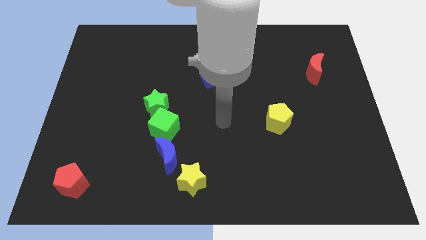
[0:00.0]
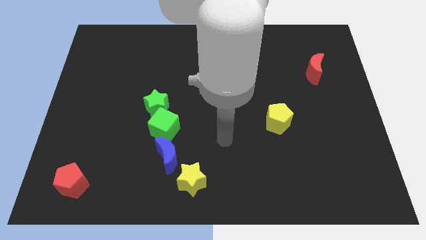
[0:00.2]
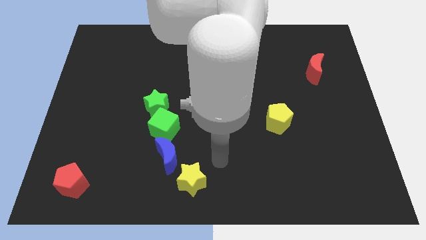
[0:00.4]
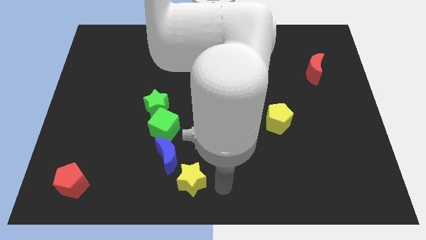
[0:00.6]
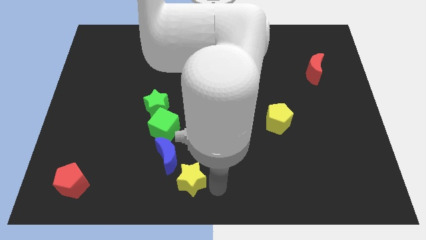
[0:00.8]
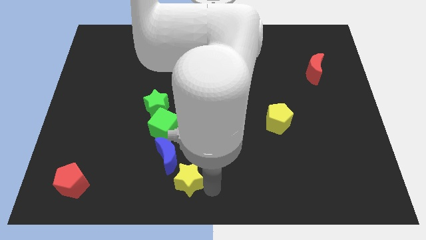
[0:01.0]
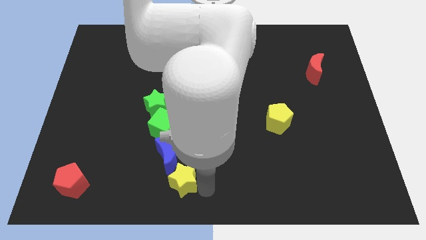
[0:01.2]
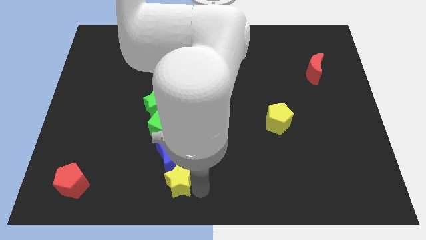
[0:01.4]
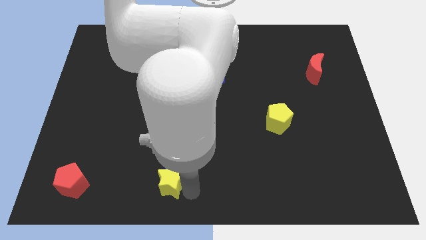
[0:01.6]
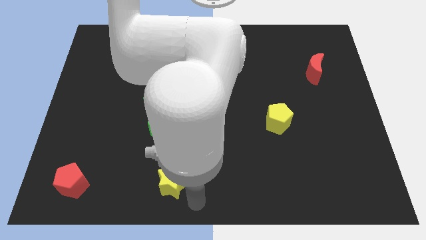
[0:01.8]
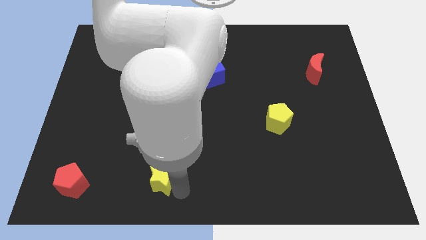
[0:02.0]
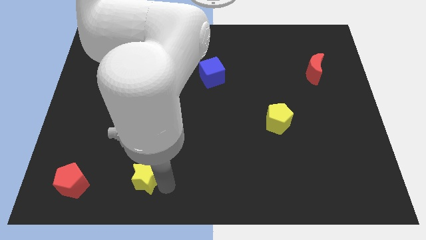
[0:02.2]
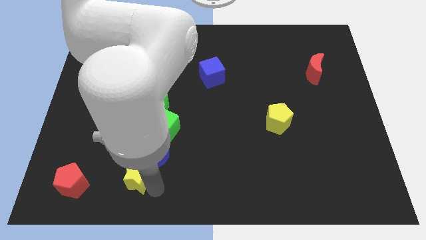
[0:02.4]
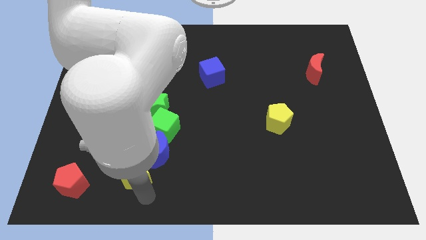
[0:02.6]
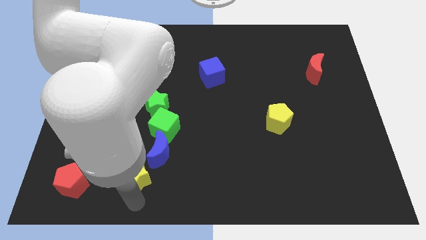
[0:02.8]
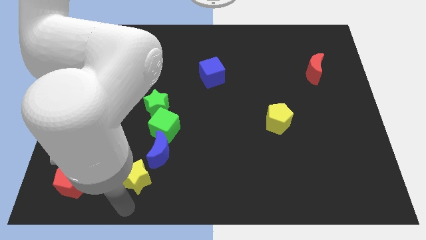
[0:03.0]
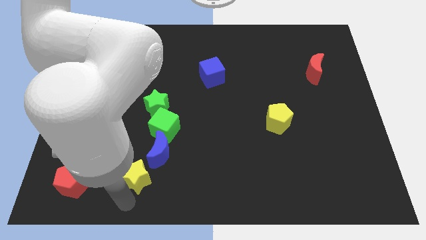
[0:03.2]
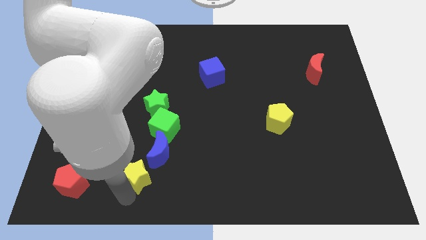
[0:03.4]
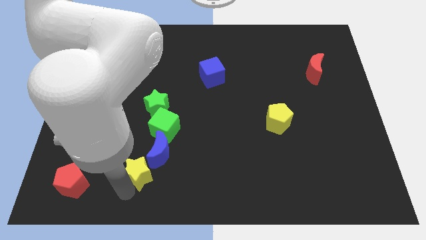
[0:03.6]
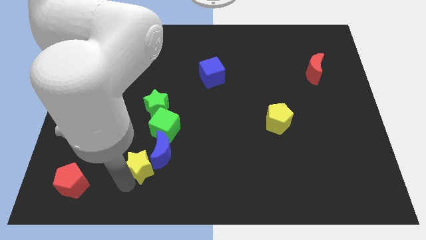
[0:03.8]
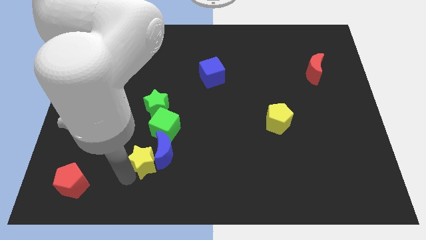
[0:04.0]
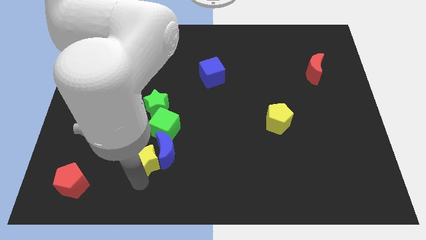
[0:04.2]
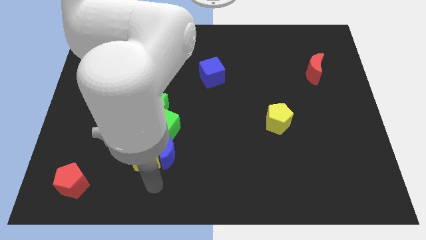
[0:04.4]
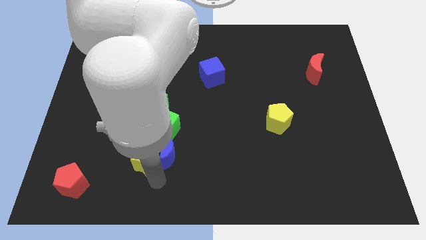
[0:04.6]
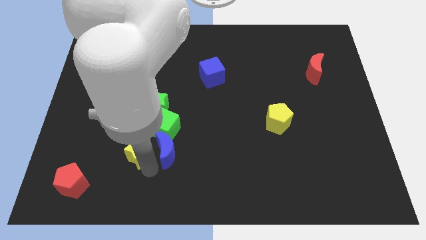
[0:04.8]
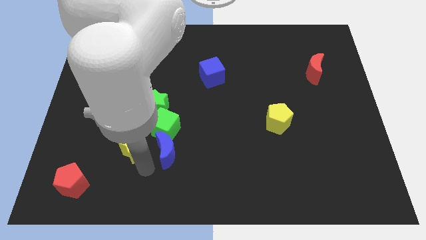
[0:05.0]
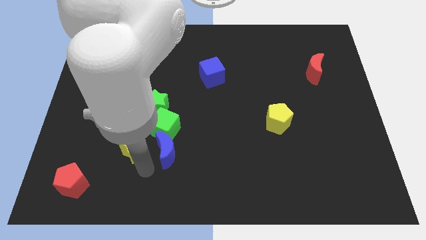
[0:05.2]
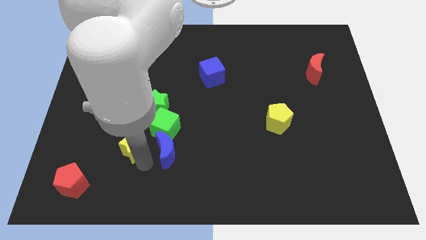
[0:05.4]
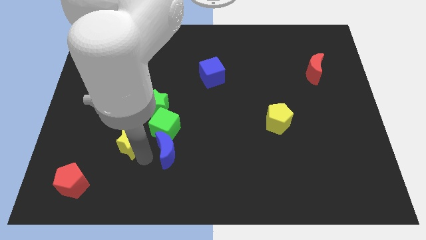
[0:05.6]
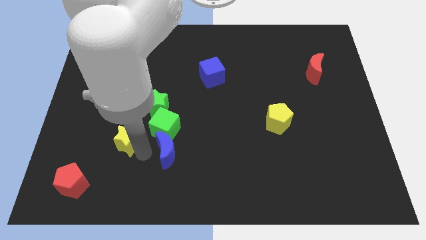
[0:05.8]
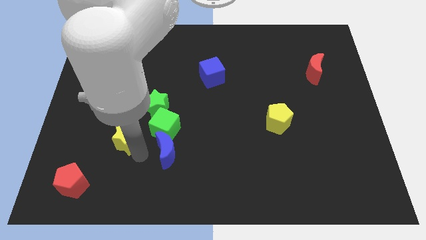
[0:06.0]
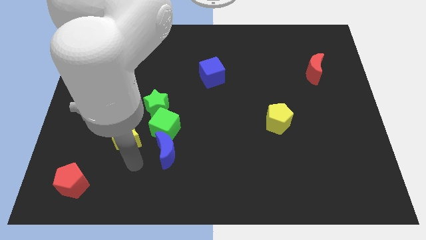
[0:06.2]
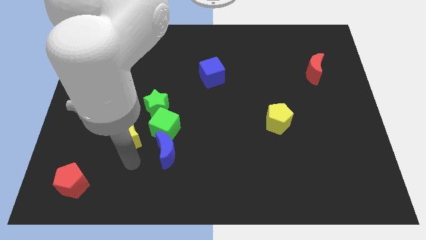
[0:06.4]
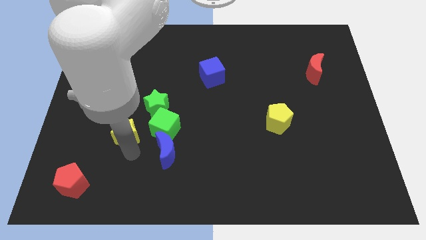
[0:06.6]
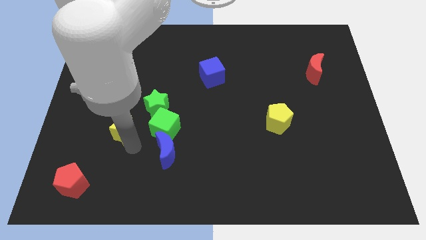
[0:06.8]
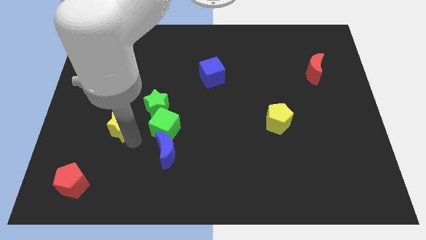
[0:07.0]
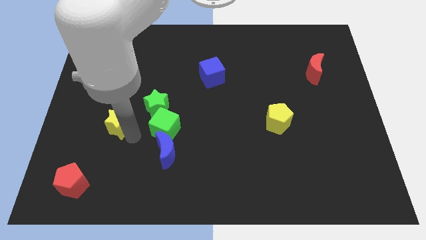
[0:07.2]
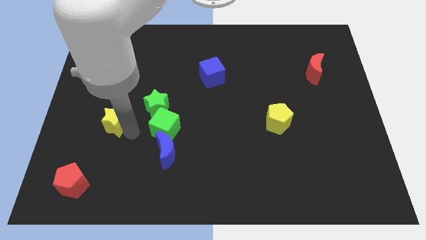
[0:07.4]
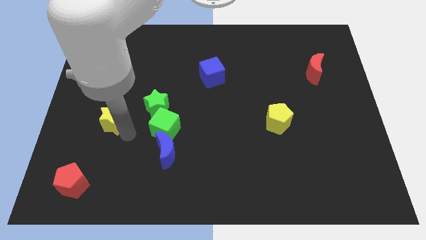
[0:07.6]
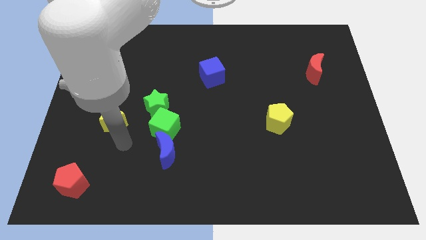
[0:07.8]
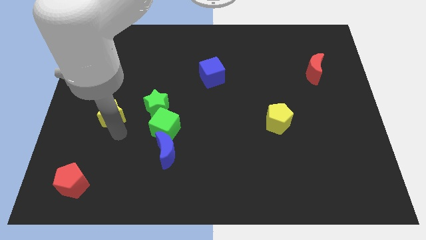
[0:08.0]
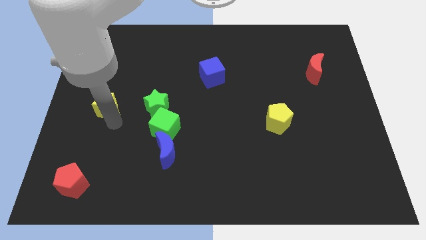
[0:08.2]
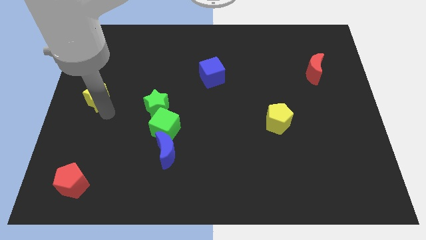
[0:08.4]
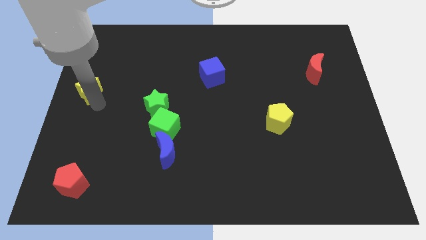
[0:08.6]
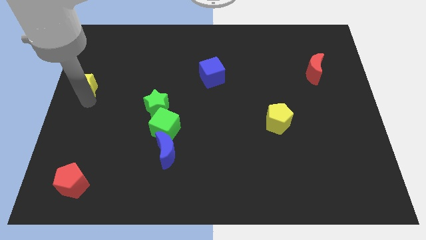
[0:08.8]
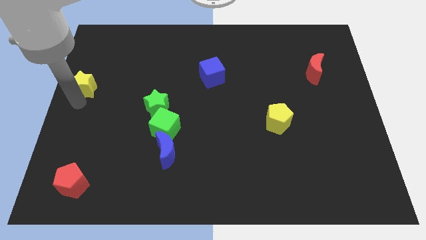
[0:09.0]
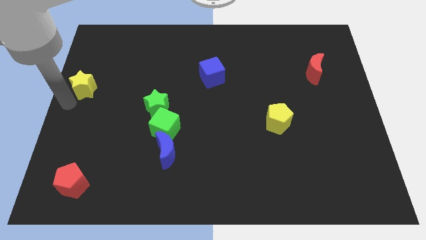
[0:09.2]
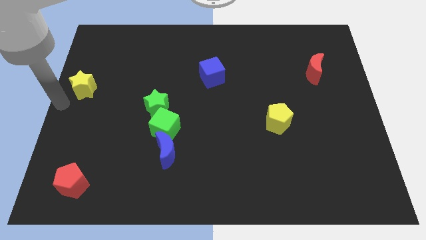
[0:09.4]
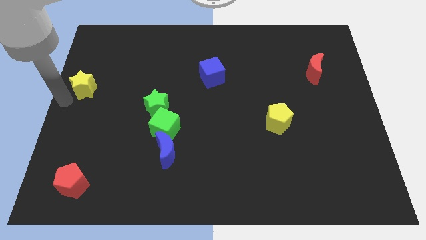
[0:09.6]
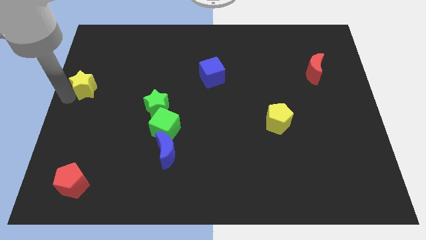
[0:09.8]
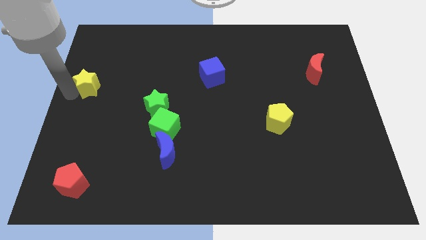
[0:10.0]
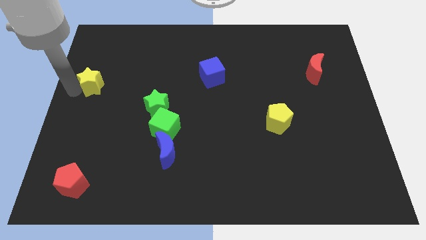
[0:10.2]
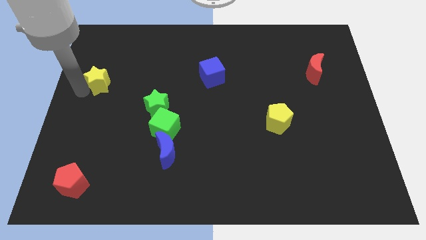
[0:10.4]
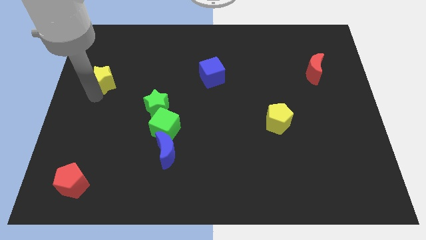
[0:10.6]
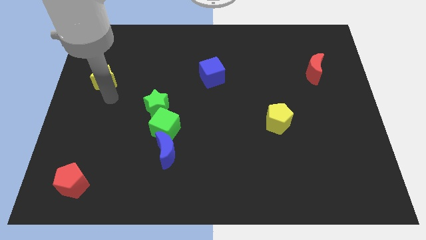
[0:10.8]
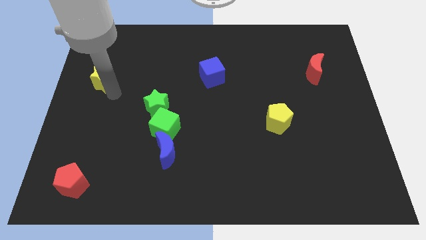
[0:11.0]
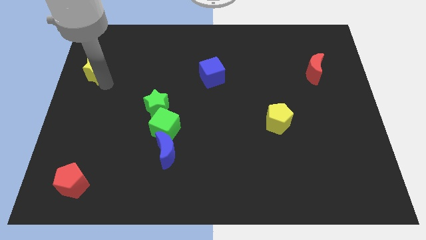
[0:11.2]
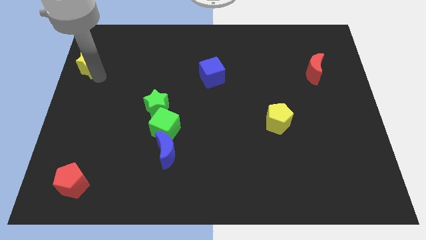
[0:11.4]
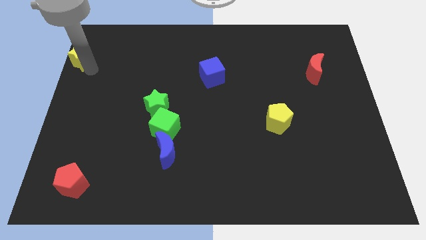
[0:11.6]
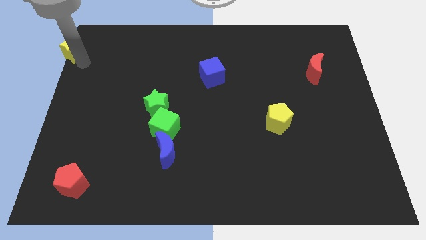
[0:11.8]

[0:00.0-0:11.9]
move the yellow star to the top left
